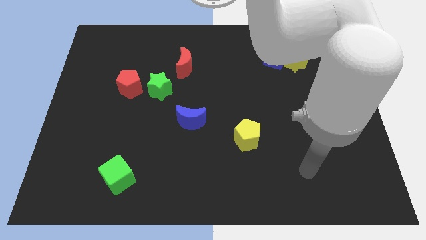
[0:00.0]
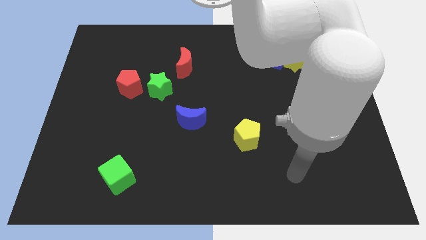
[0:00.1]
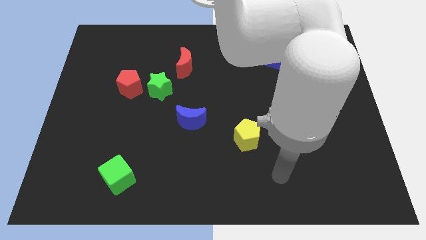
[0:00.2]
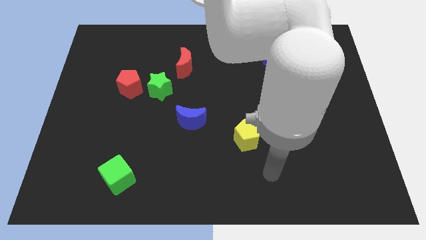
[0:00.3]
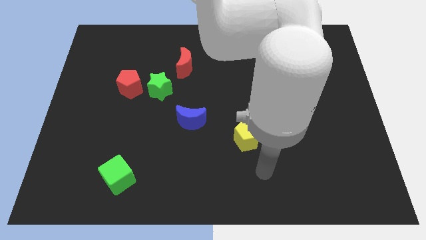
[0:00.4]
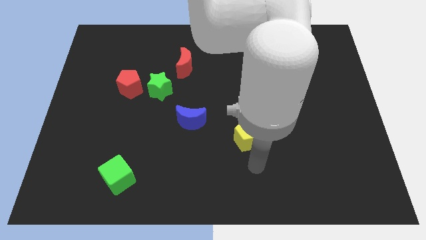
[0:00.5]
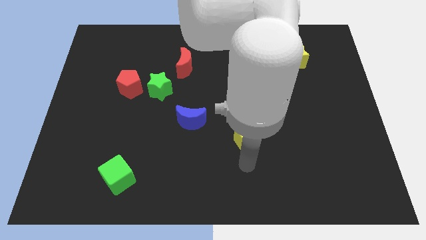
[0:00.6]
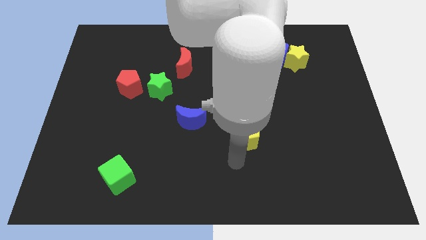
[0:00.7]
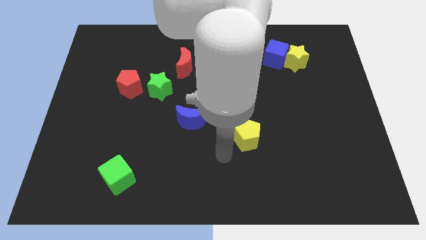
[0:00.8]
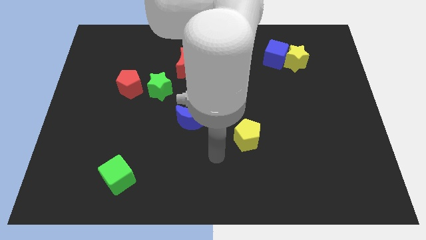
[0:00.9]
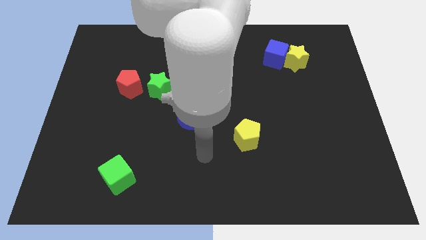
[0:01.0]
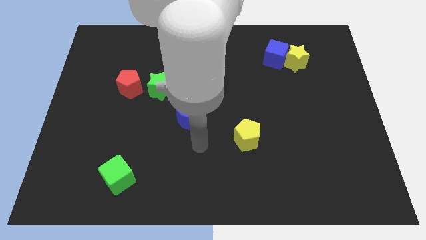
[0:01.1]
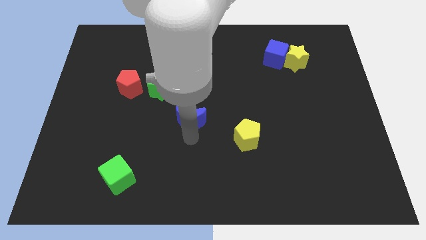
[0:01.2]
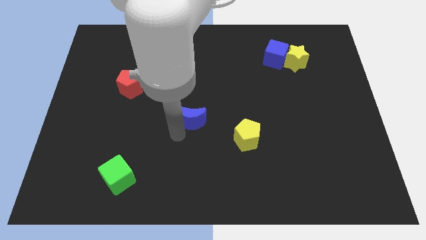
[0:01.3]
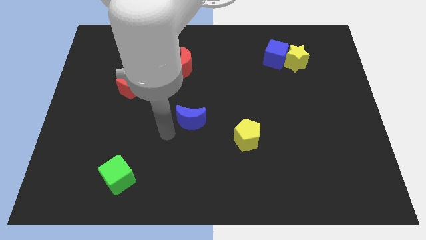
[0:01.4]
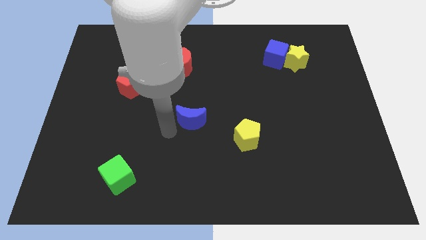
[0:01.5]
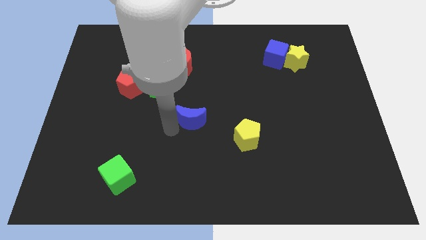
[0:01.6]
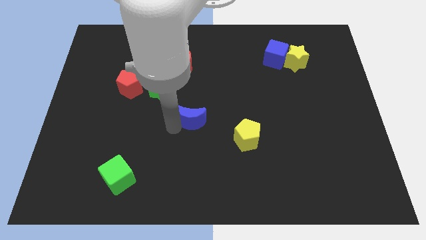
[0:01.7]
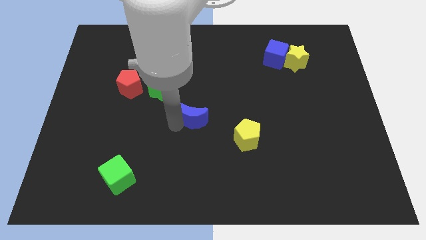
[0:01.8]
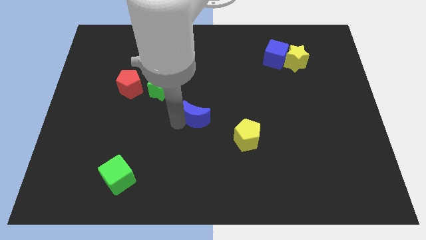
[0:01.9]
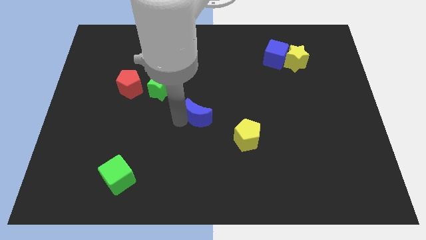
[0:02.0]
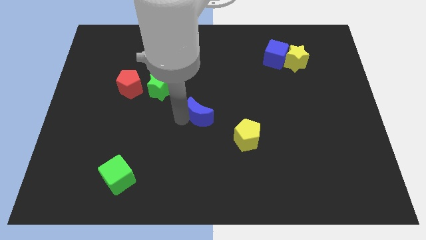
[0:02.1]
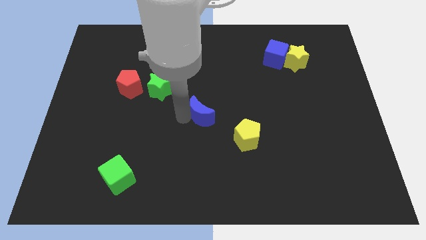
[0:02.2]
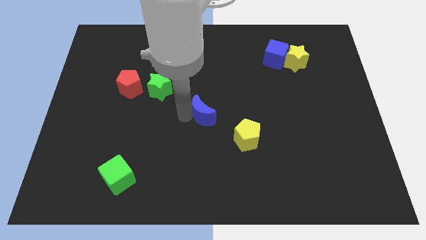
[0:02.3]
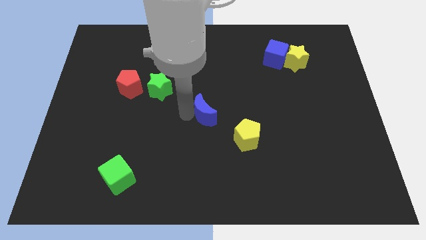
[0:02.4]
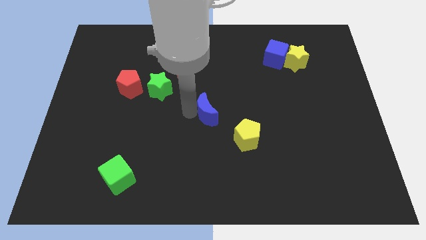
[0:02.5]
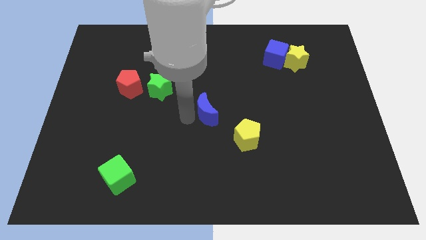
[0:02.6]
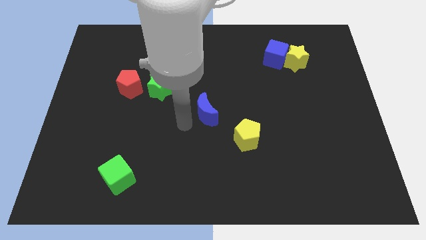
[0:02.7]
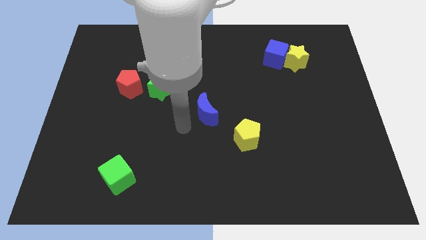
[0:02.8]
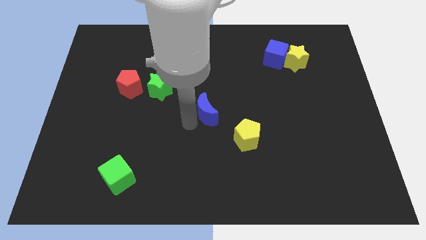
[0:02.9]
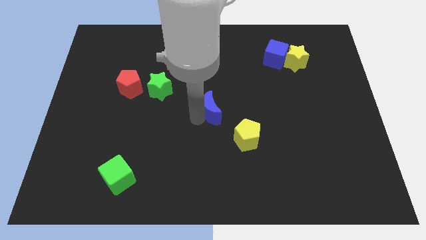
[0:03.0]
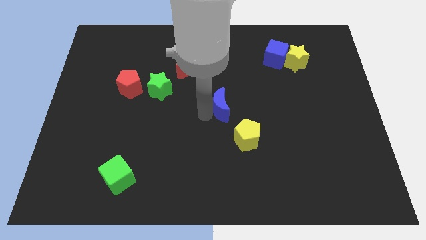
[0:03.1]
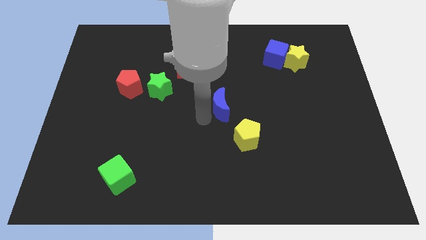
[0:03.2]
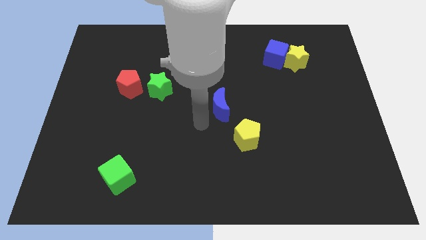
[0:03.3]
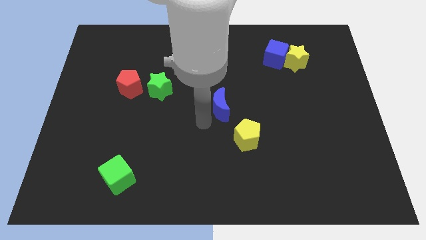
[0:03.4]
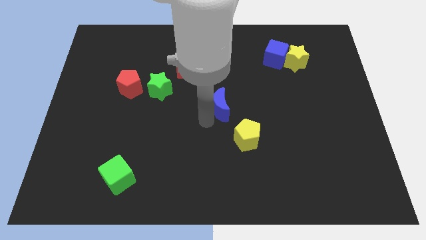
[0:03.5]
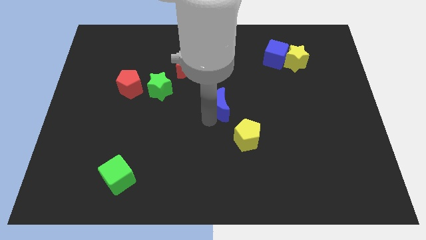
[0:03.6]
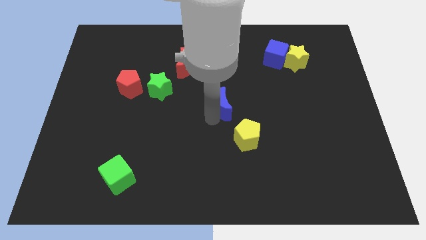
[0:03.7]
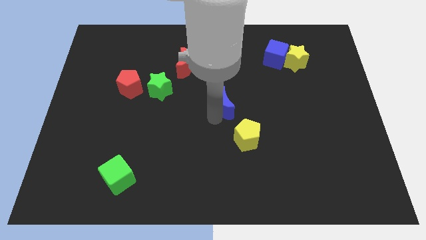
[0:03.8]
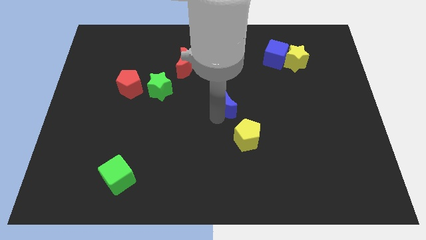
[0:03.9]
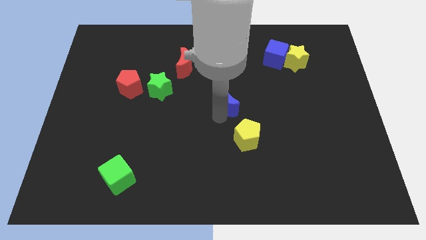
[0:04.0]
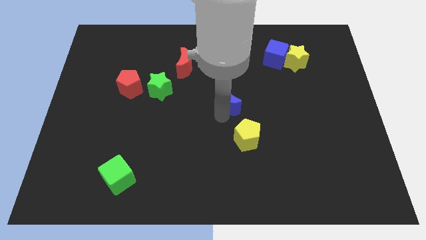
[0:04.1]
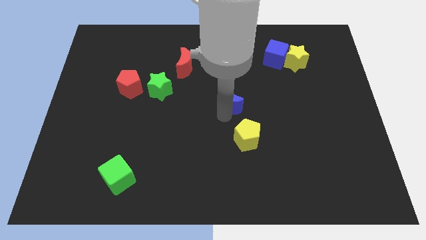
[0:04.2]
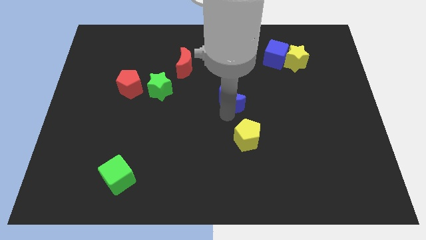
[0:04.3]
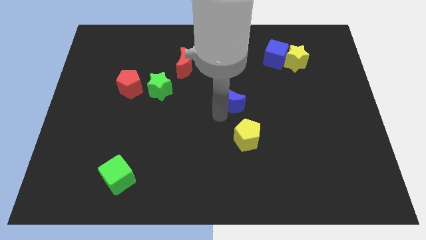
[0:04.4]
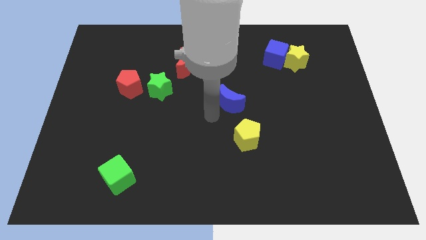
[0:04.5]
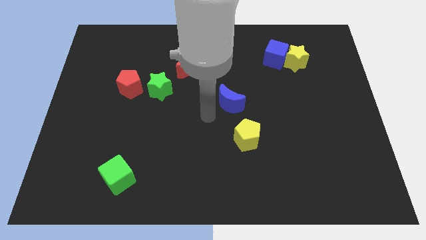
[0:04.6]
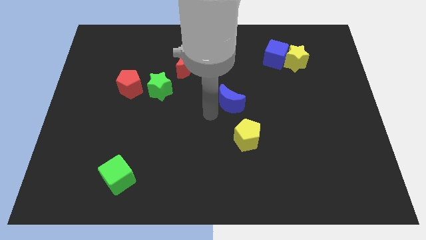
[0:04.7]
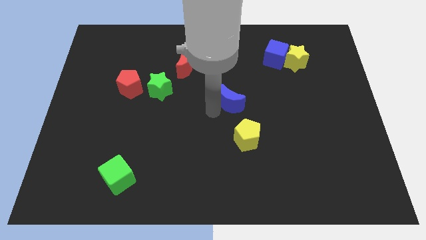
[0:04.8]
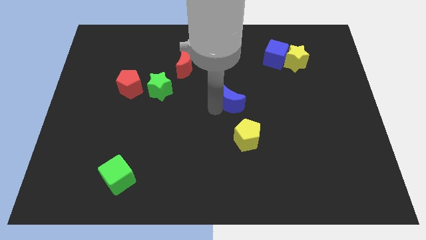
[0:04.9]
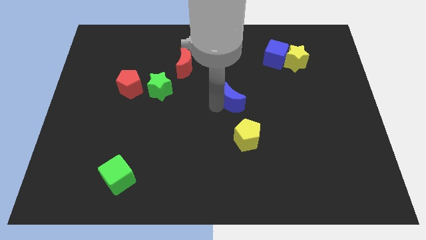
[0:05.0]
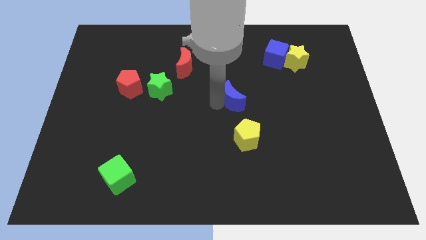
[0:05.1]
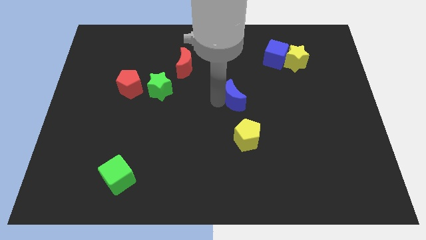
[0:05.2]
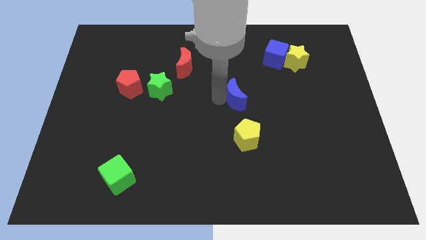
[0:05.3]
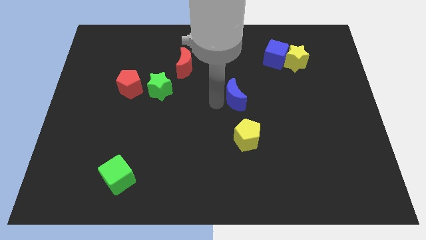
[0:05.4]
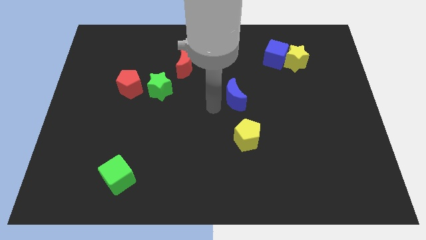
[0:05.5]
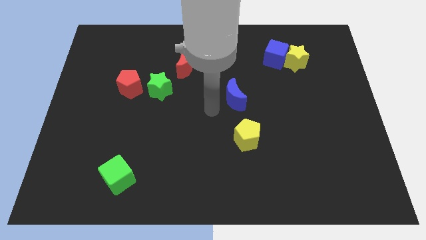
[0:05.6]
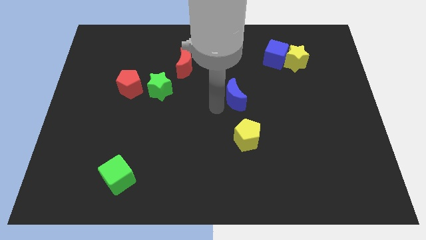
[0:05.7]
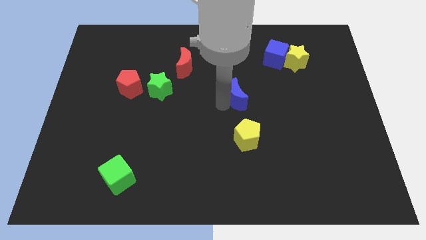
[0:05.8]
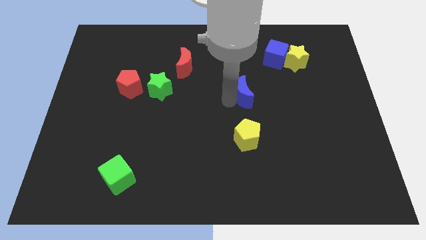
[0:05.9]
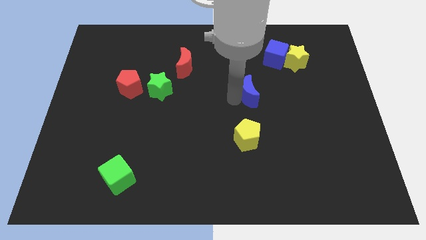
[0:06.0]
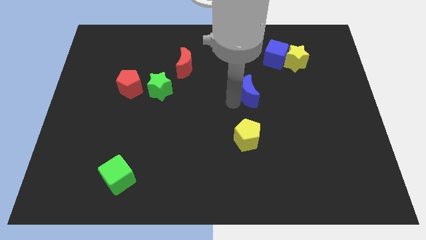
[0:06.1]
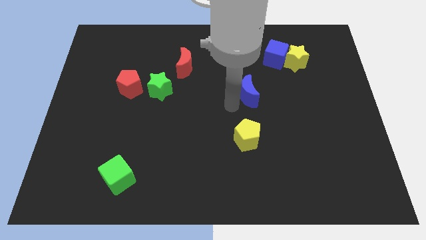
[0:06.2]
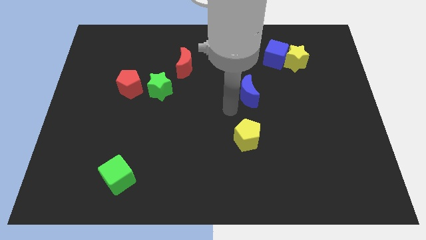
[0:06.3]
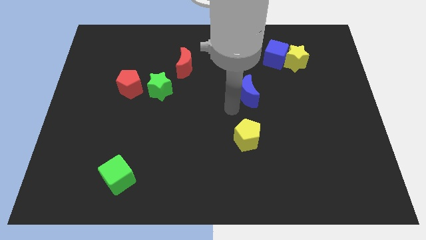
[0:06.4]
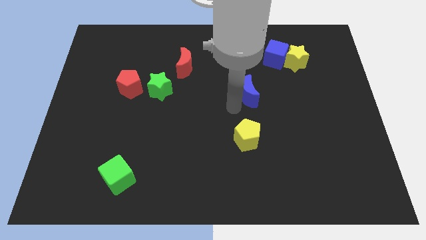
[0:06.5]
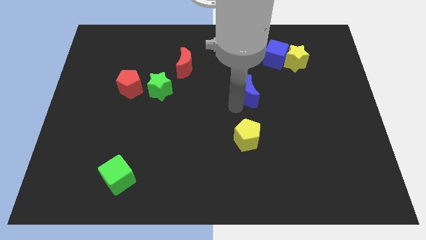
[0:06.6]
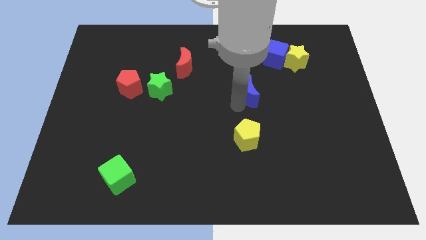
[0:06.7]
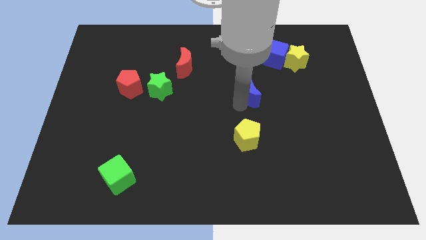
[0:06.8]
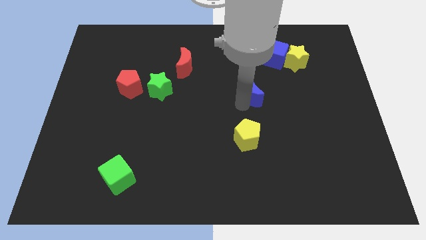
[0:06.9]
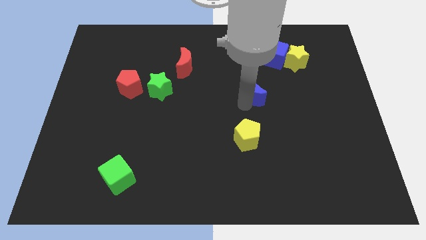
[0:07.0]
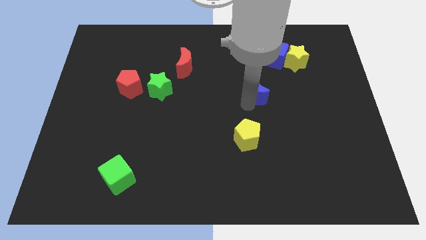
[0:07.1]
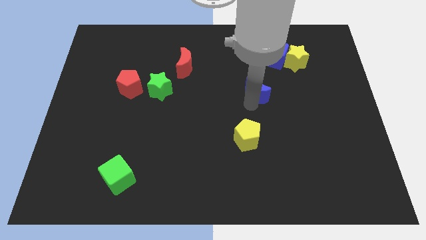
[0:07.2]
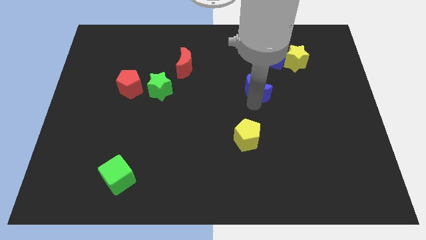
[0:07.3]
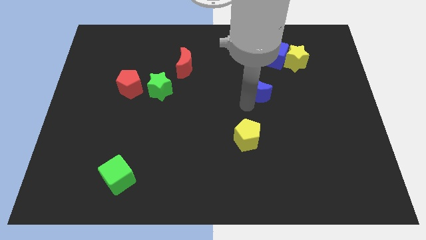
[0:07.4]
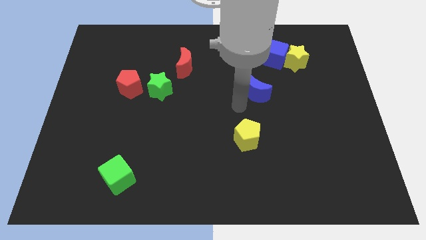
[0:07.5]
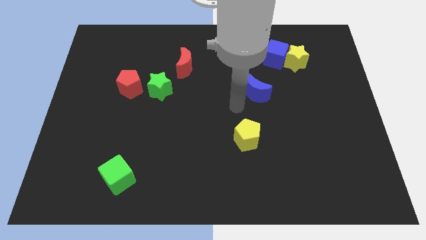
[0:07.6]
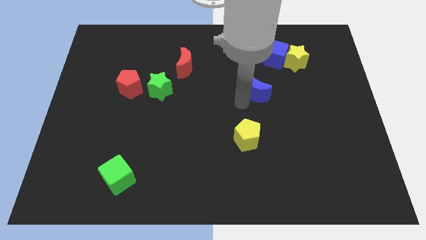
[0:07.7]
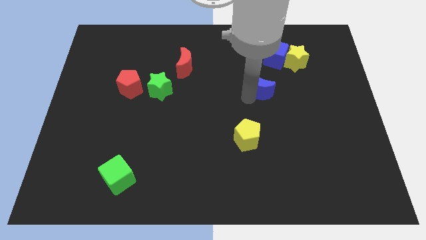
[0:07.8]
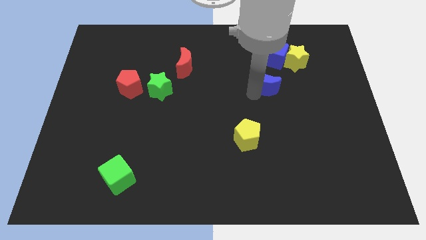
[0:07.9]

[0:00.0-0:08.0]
slide the blue moon to the bottom left side of the yellow star
